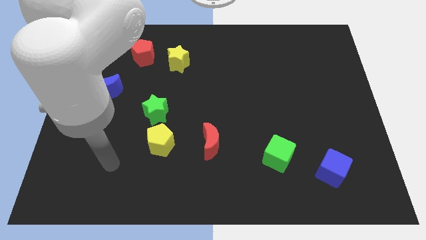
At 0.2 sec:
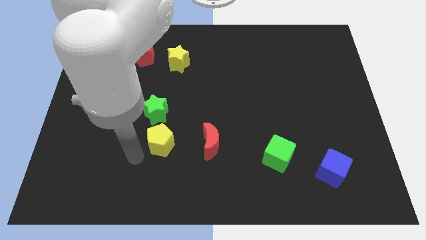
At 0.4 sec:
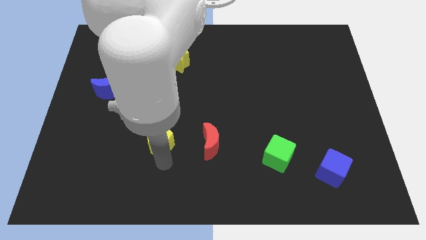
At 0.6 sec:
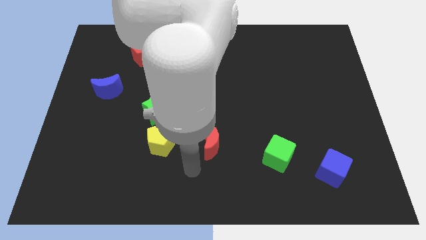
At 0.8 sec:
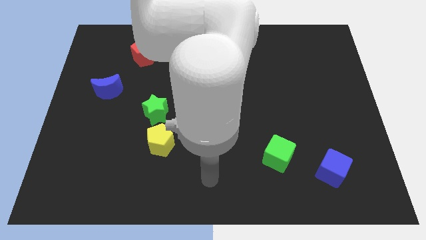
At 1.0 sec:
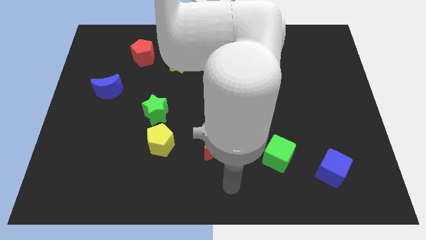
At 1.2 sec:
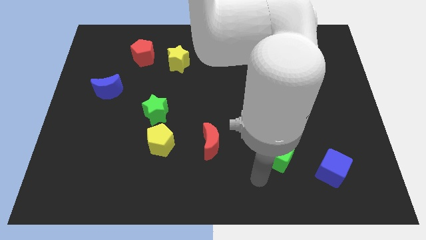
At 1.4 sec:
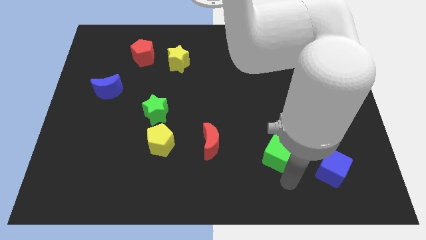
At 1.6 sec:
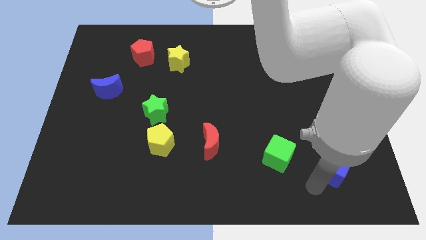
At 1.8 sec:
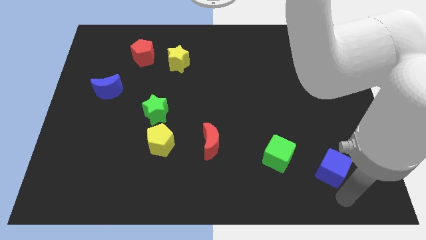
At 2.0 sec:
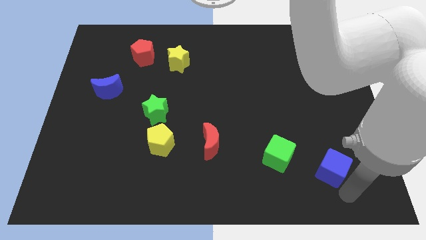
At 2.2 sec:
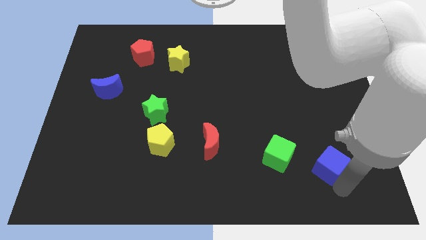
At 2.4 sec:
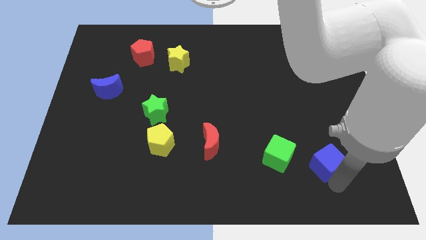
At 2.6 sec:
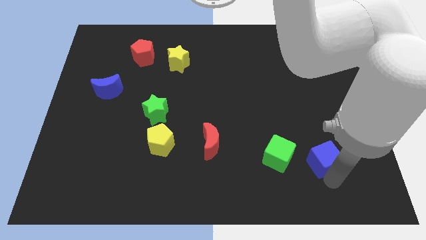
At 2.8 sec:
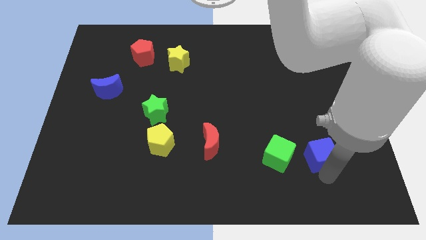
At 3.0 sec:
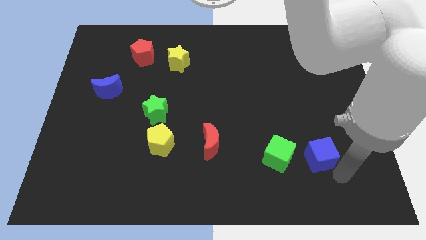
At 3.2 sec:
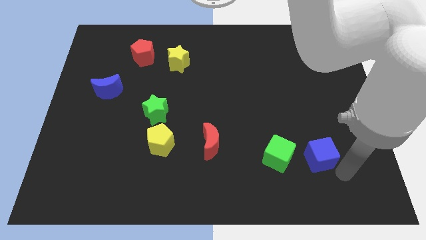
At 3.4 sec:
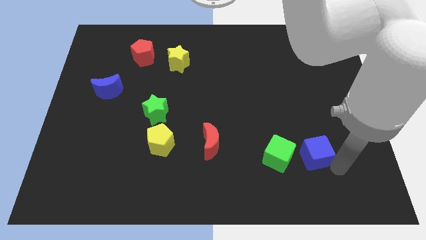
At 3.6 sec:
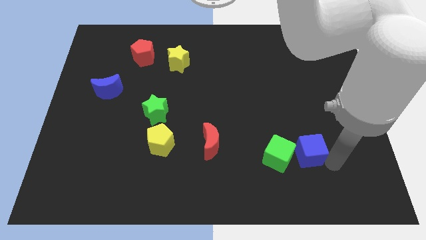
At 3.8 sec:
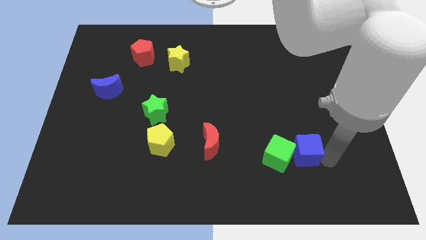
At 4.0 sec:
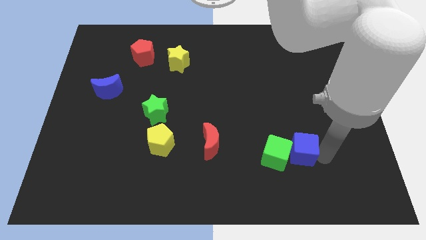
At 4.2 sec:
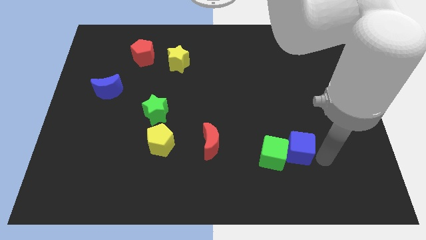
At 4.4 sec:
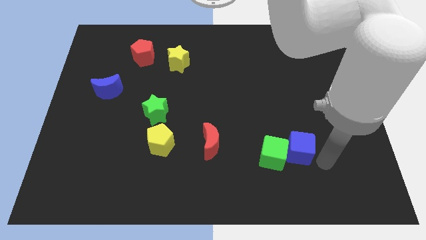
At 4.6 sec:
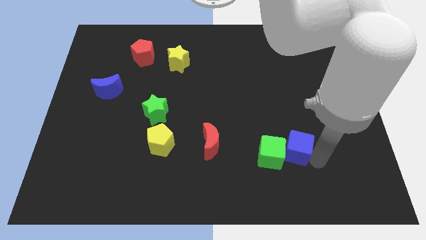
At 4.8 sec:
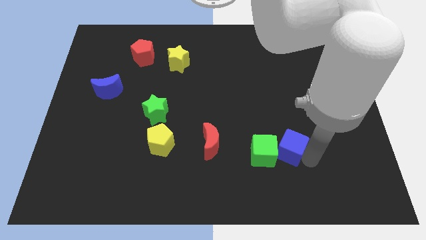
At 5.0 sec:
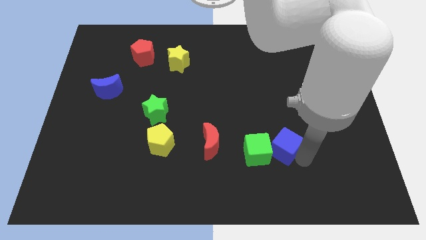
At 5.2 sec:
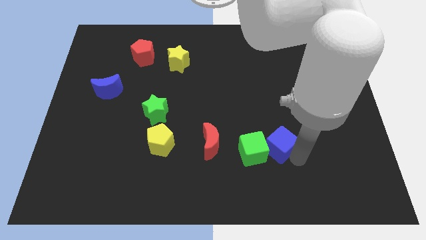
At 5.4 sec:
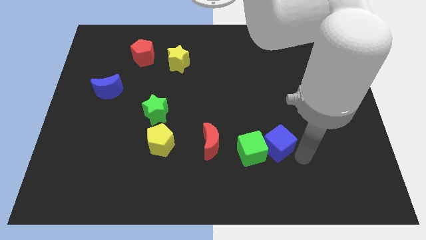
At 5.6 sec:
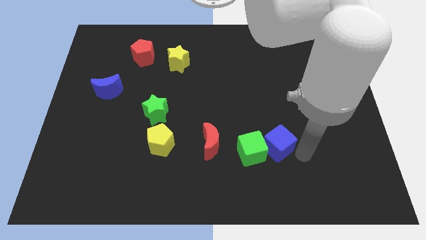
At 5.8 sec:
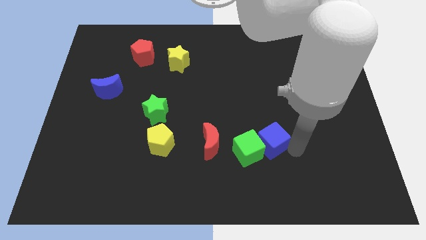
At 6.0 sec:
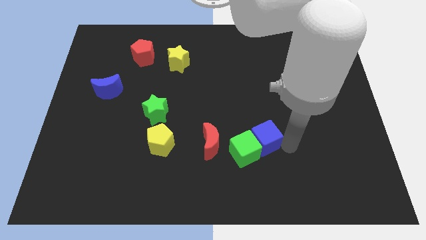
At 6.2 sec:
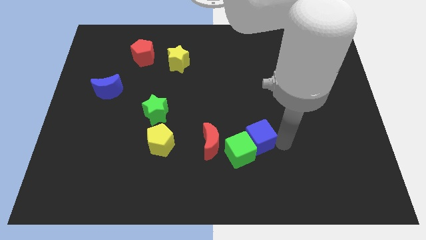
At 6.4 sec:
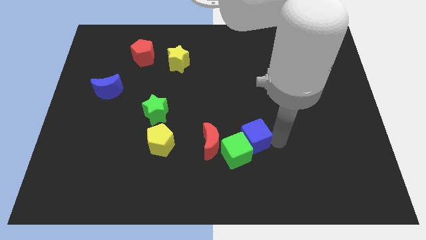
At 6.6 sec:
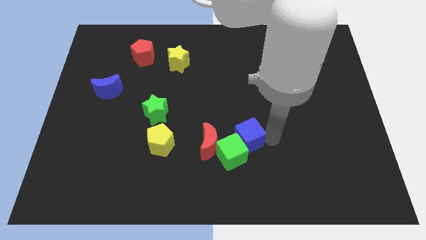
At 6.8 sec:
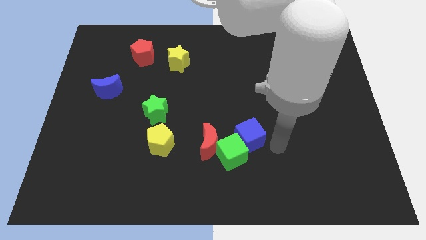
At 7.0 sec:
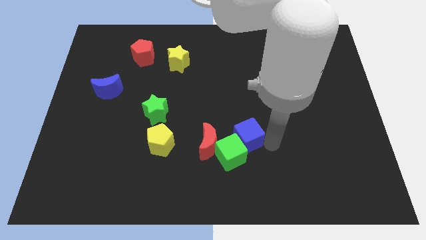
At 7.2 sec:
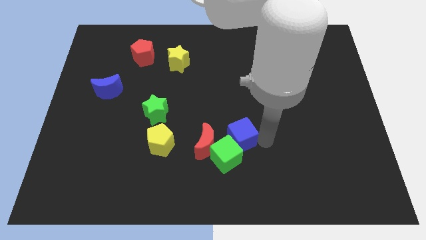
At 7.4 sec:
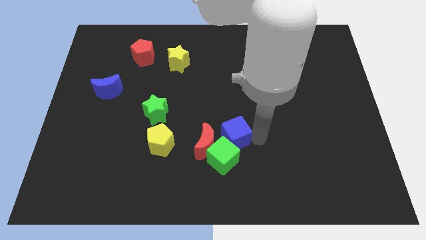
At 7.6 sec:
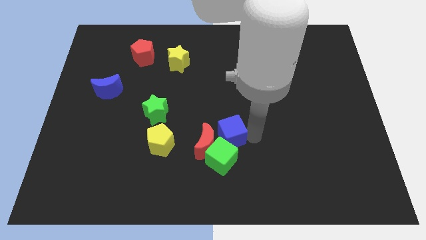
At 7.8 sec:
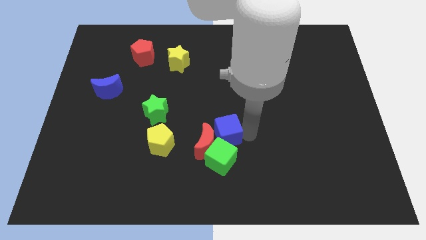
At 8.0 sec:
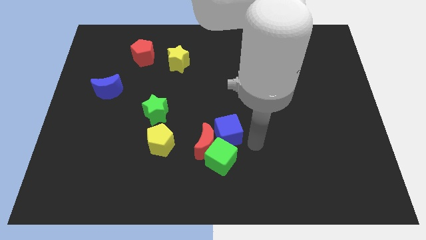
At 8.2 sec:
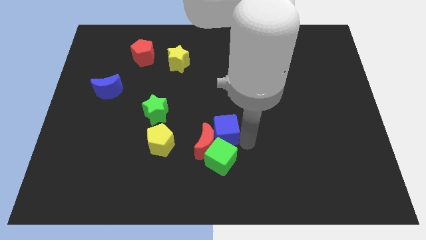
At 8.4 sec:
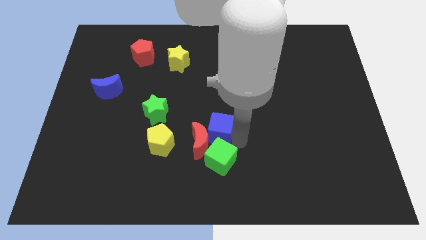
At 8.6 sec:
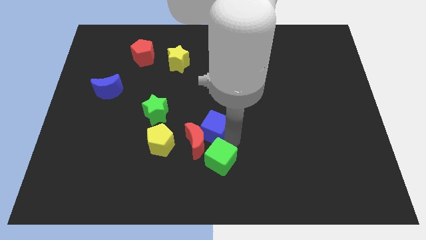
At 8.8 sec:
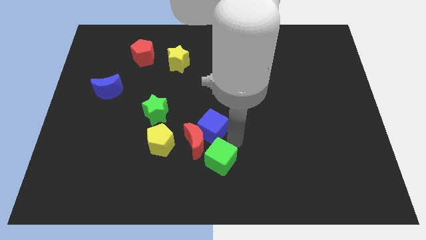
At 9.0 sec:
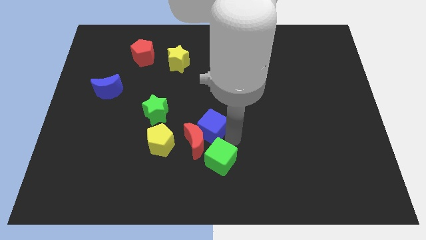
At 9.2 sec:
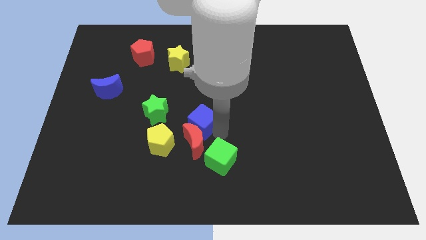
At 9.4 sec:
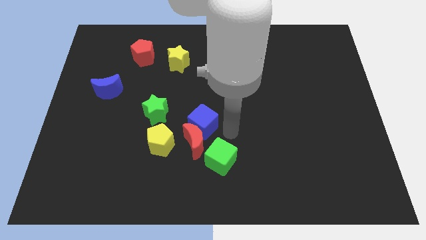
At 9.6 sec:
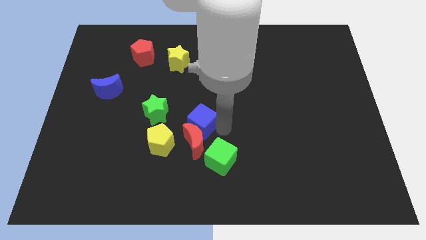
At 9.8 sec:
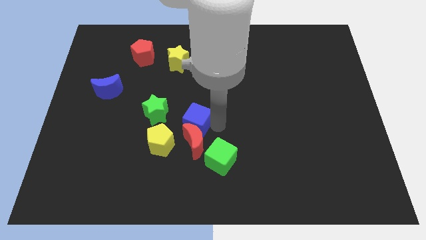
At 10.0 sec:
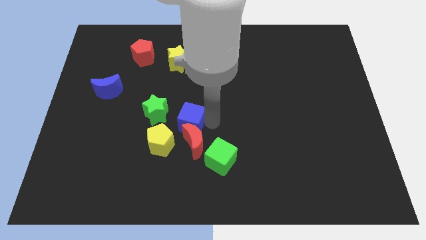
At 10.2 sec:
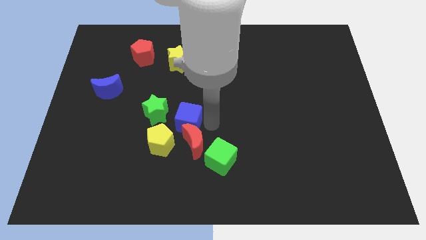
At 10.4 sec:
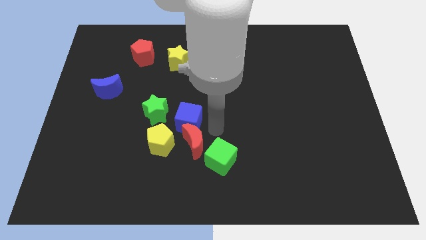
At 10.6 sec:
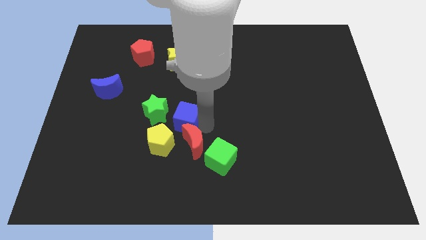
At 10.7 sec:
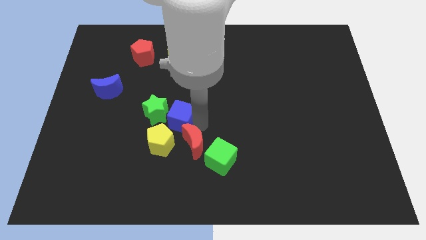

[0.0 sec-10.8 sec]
slide the blue cube to the green star

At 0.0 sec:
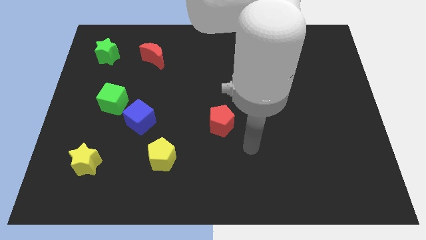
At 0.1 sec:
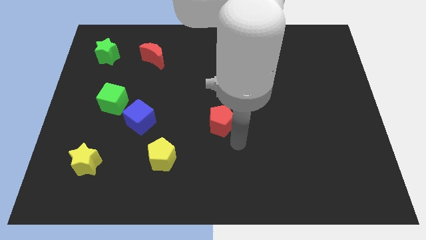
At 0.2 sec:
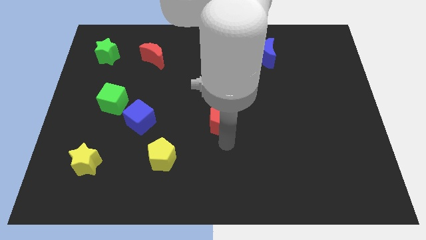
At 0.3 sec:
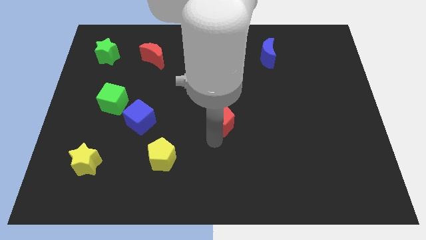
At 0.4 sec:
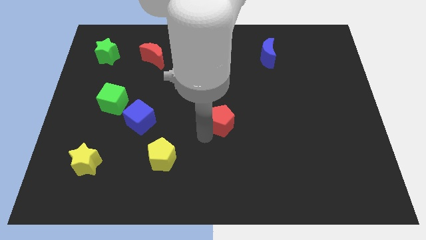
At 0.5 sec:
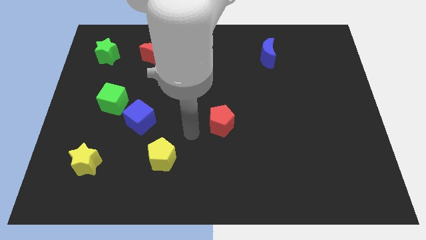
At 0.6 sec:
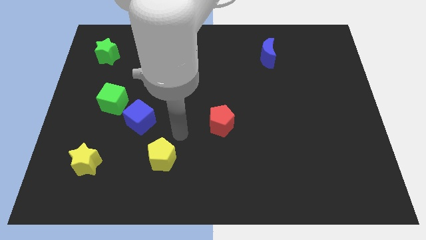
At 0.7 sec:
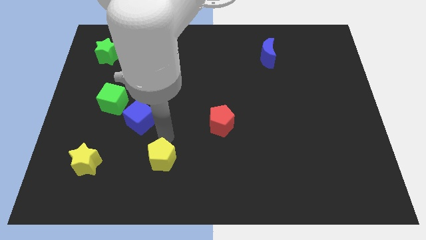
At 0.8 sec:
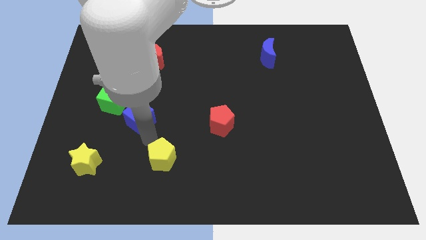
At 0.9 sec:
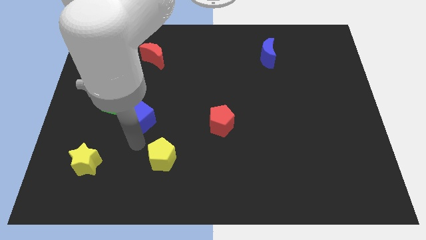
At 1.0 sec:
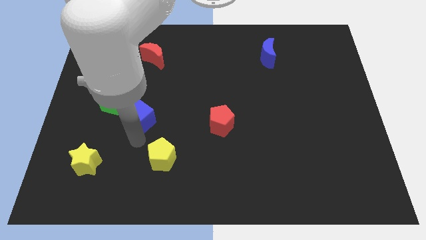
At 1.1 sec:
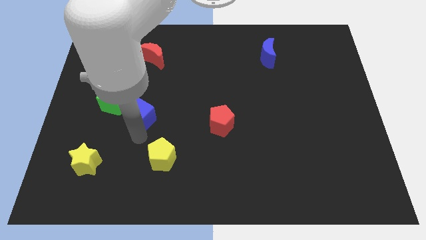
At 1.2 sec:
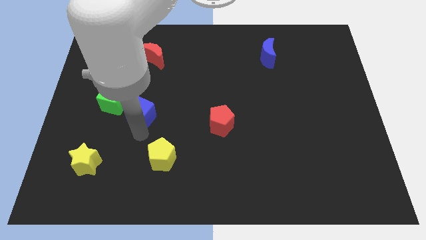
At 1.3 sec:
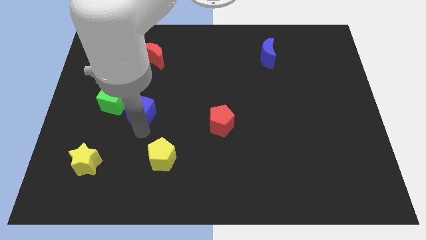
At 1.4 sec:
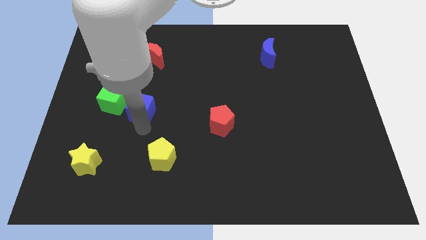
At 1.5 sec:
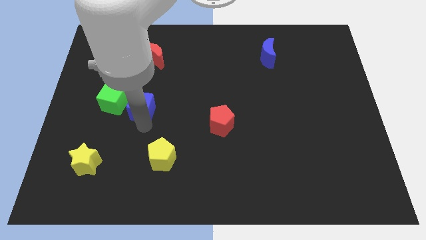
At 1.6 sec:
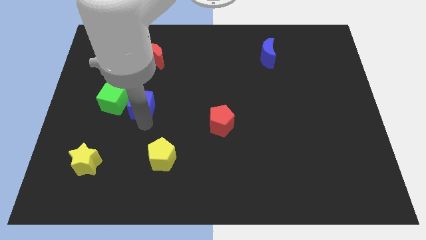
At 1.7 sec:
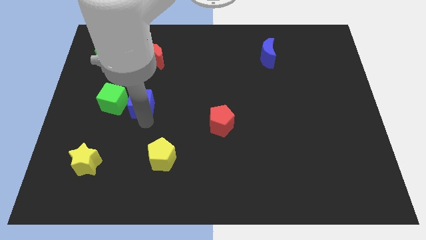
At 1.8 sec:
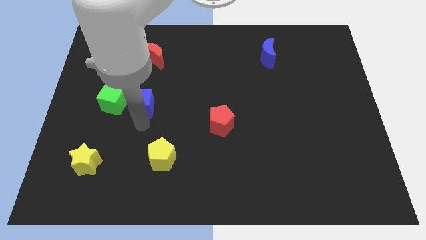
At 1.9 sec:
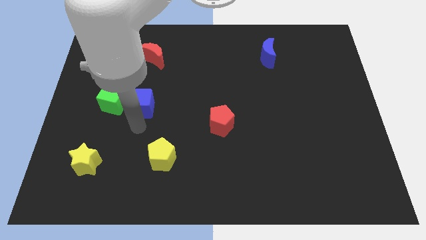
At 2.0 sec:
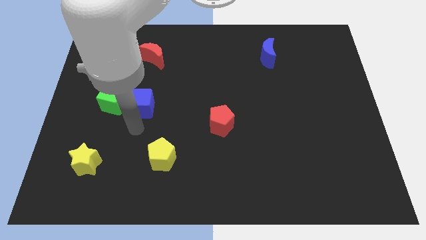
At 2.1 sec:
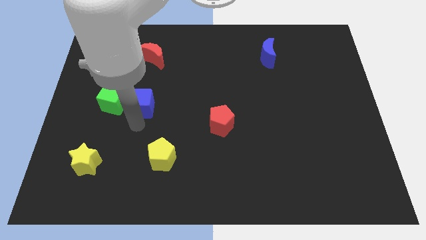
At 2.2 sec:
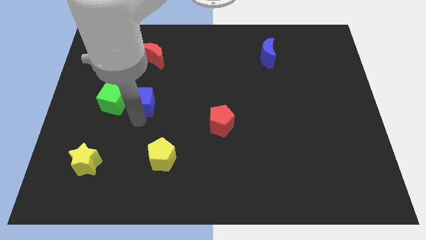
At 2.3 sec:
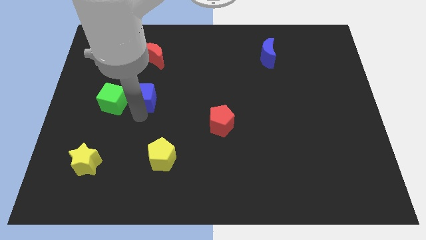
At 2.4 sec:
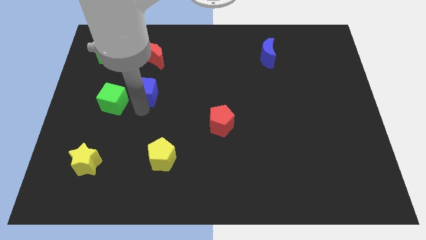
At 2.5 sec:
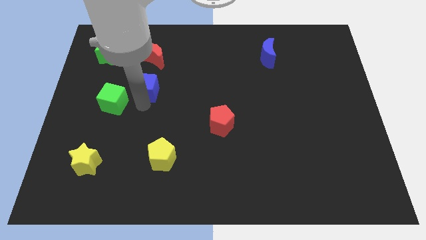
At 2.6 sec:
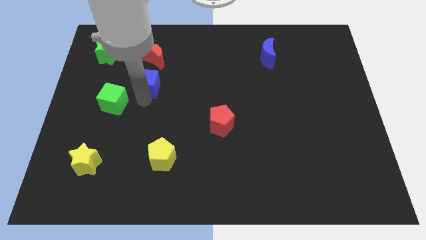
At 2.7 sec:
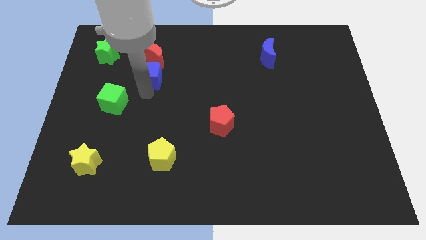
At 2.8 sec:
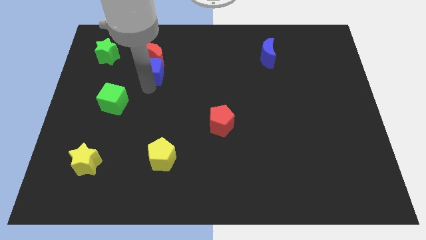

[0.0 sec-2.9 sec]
put the blue cube close to the red moon
